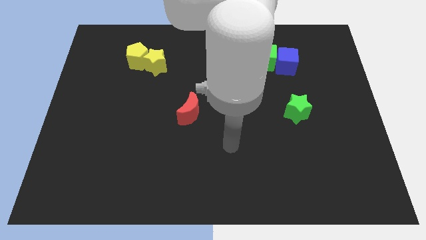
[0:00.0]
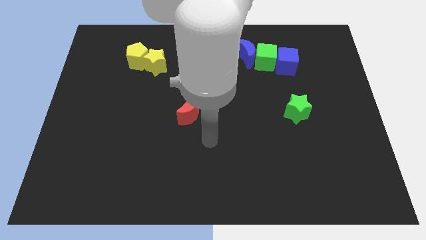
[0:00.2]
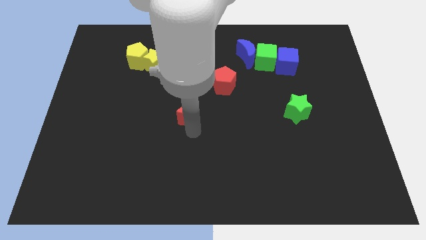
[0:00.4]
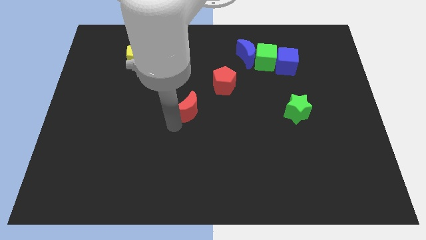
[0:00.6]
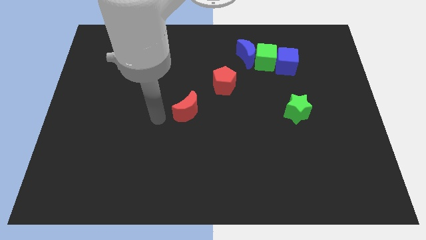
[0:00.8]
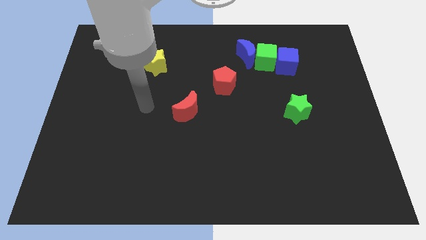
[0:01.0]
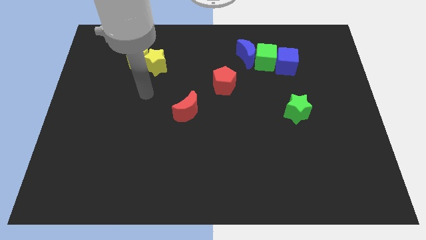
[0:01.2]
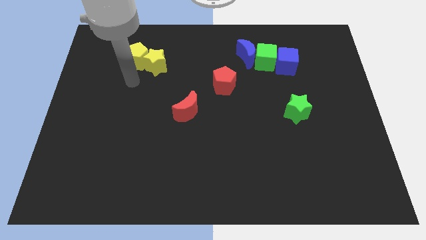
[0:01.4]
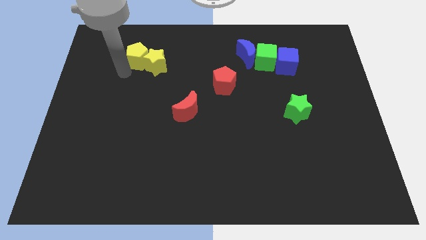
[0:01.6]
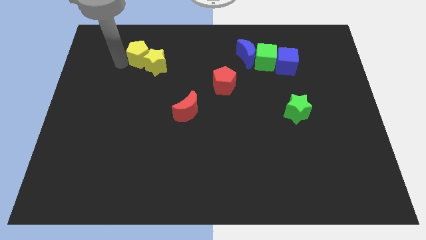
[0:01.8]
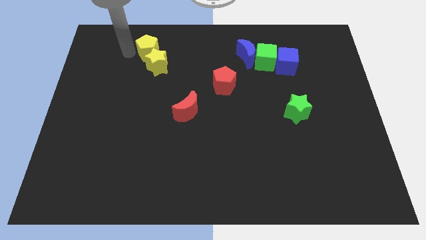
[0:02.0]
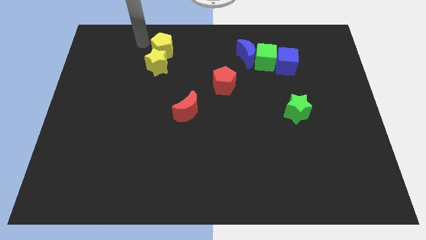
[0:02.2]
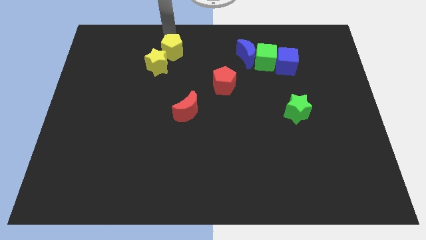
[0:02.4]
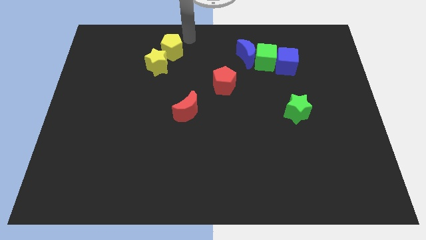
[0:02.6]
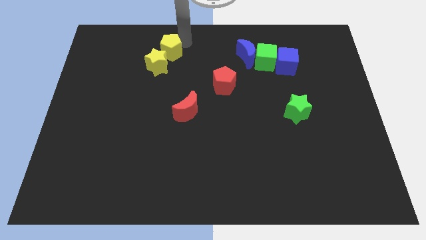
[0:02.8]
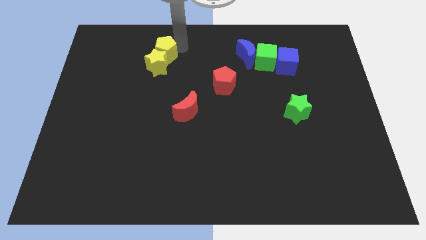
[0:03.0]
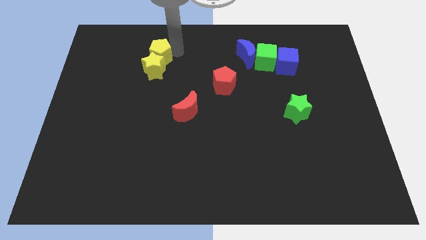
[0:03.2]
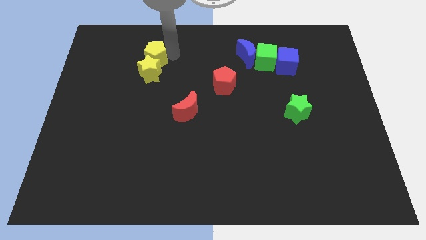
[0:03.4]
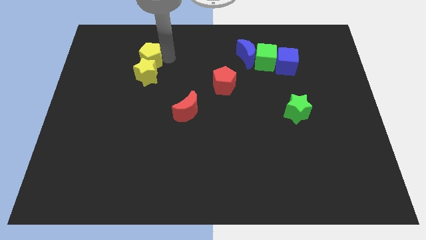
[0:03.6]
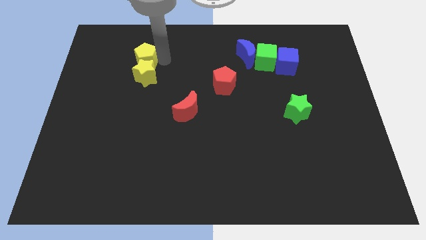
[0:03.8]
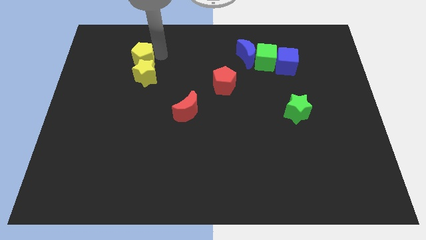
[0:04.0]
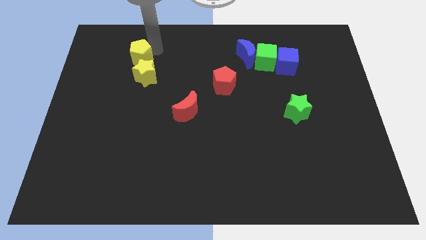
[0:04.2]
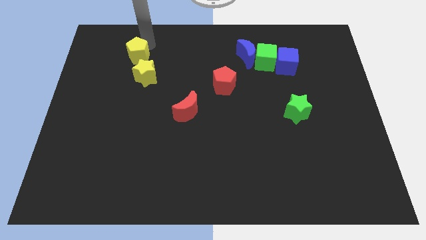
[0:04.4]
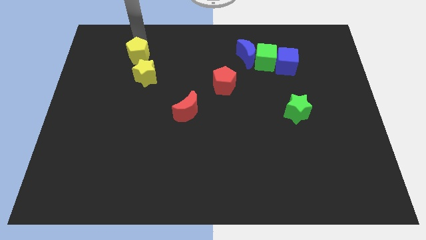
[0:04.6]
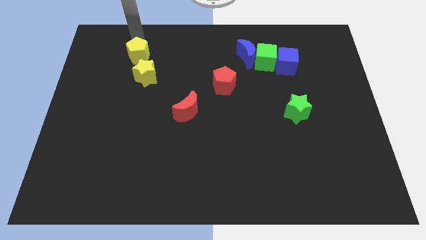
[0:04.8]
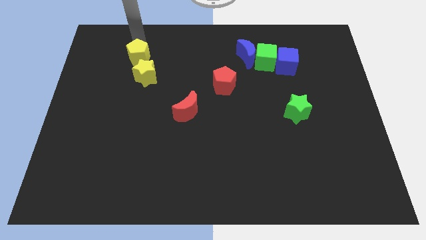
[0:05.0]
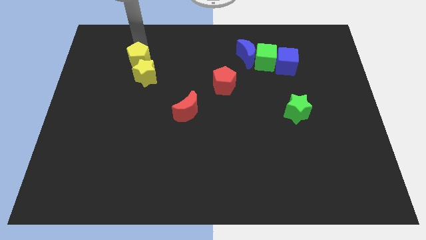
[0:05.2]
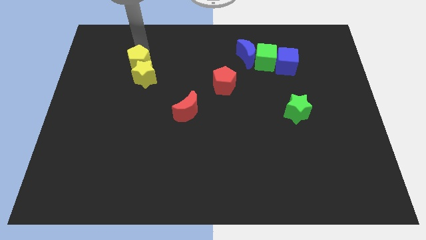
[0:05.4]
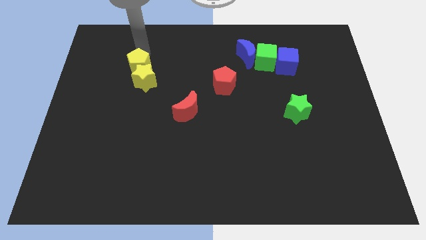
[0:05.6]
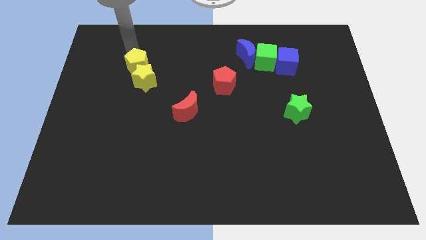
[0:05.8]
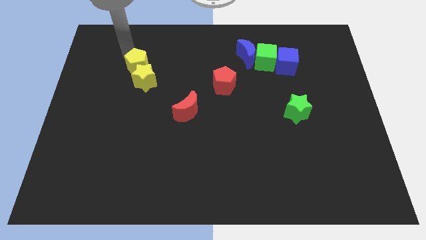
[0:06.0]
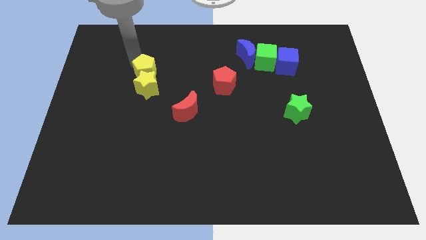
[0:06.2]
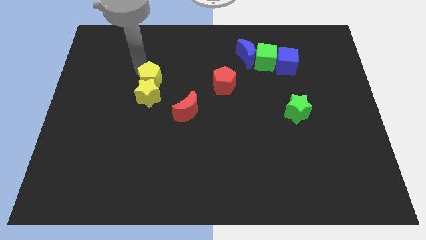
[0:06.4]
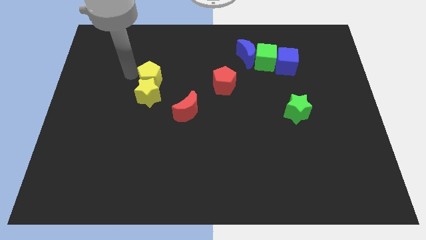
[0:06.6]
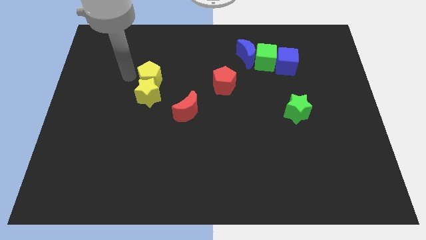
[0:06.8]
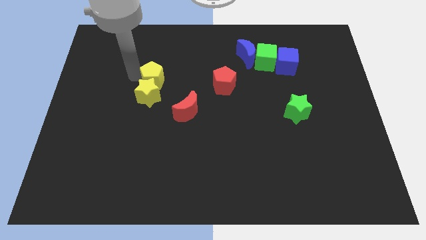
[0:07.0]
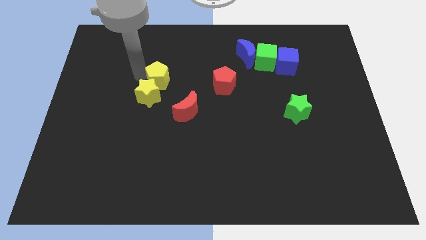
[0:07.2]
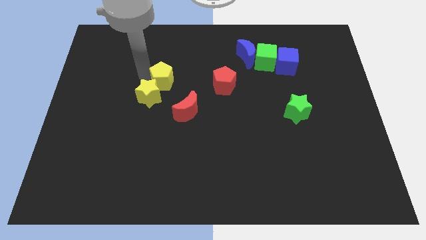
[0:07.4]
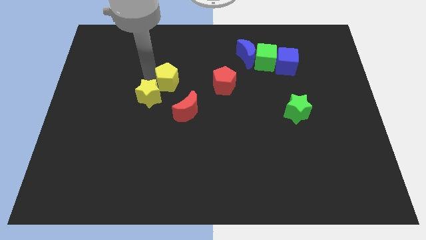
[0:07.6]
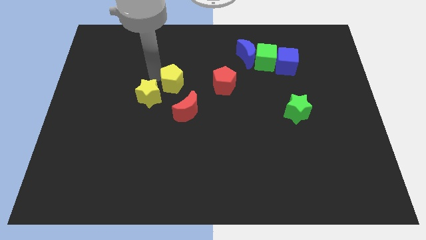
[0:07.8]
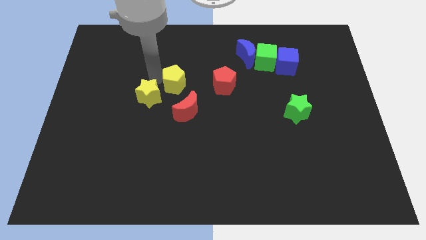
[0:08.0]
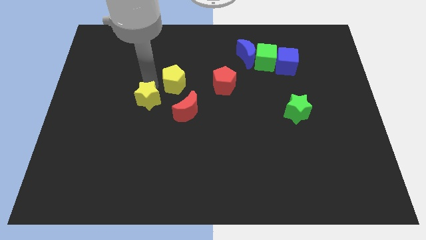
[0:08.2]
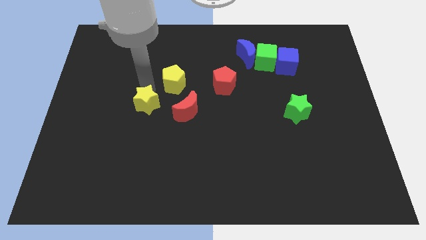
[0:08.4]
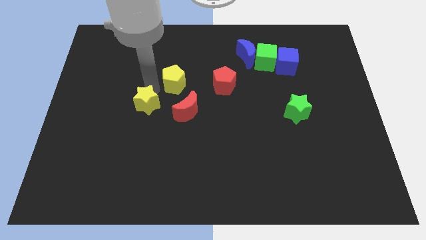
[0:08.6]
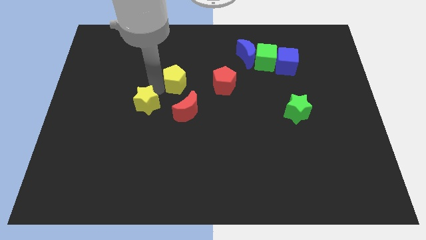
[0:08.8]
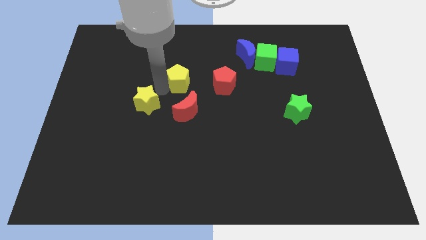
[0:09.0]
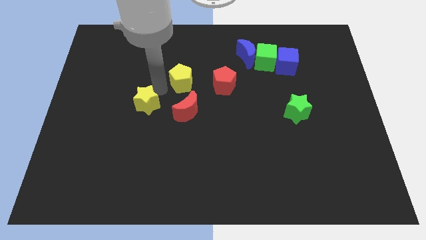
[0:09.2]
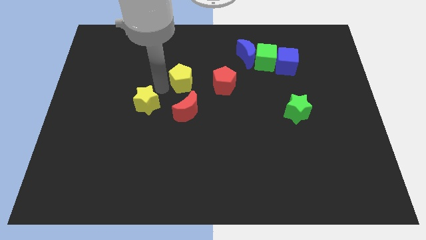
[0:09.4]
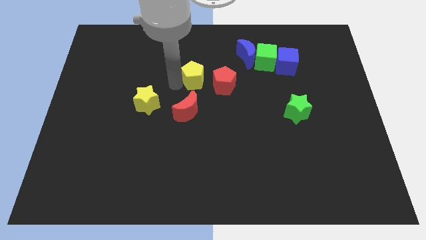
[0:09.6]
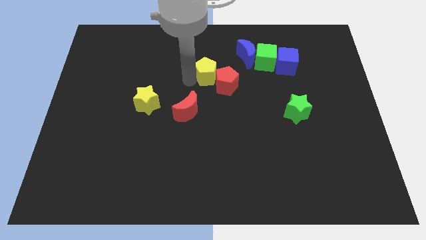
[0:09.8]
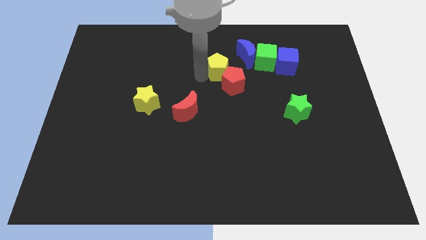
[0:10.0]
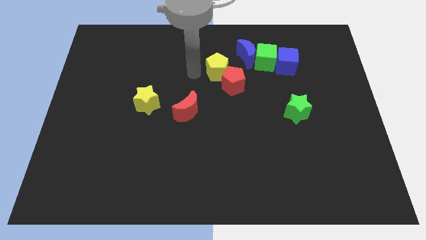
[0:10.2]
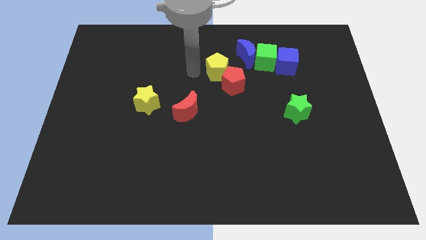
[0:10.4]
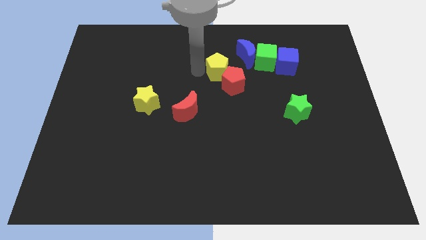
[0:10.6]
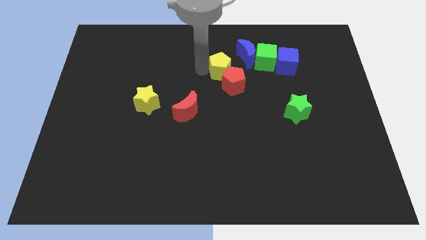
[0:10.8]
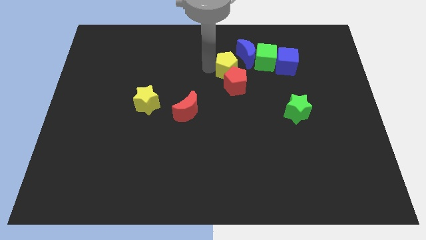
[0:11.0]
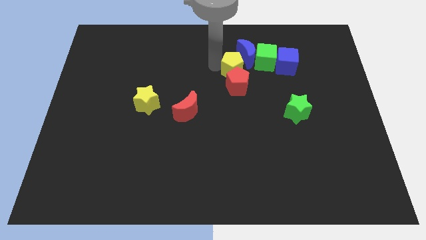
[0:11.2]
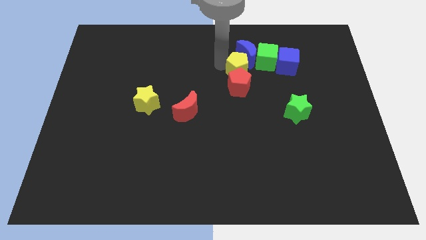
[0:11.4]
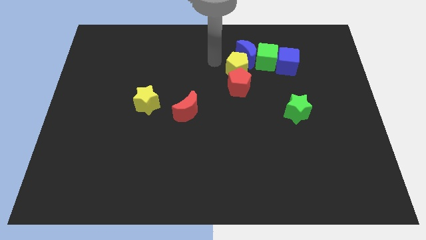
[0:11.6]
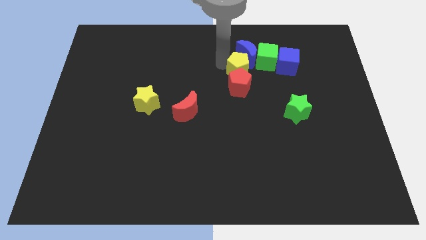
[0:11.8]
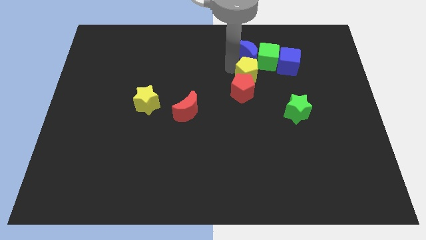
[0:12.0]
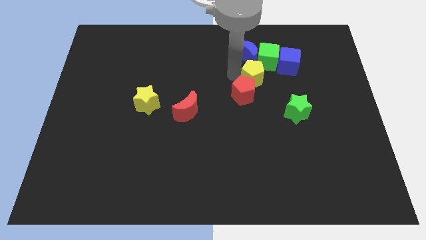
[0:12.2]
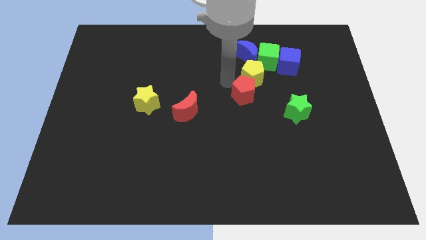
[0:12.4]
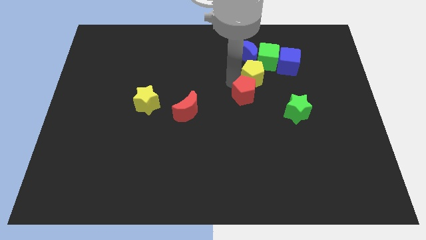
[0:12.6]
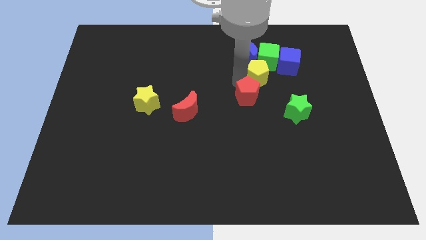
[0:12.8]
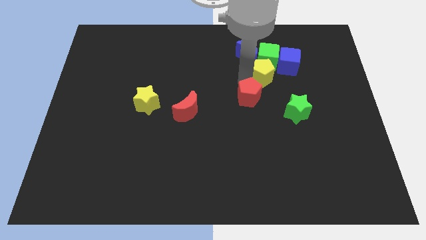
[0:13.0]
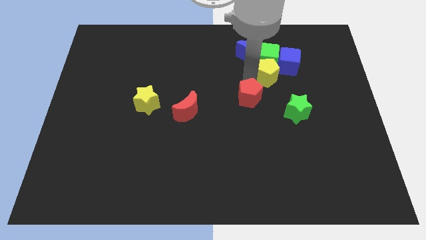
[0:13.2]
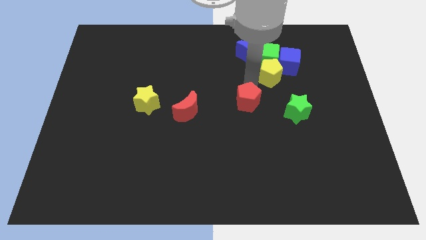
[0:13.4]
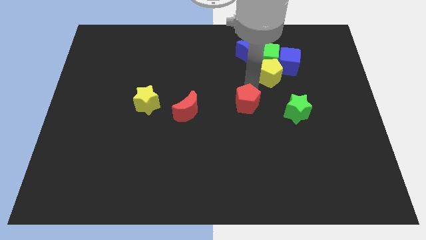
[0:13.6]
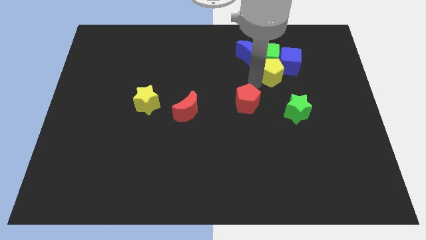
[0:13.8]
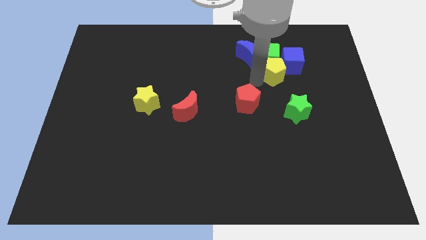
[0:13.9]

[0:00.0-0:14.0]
push the yellow pentagon close to the blue cube
